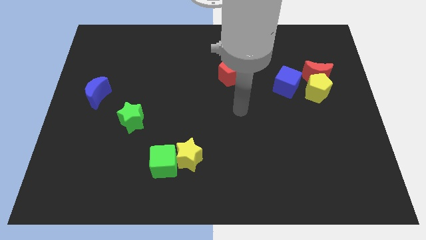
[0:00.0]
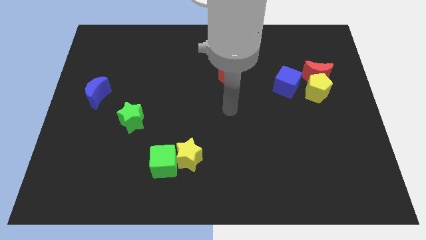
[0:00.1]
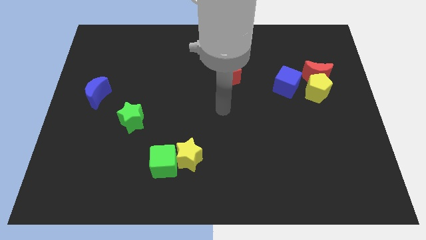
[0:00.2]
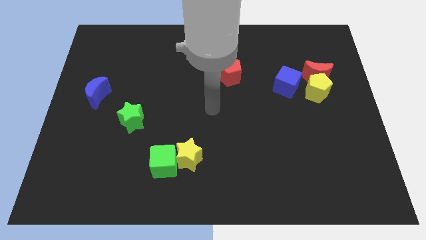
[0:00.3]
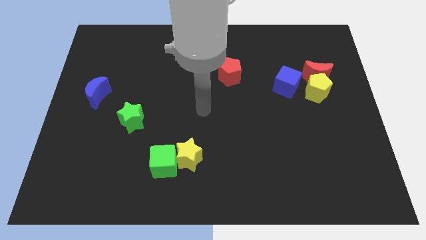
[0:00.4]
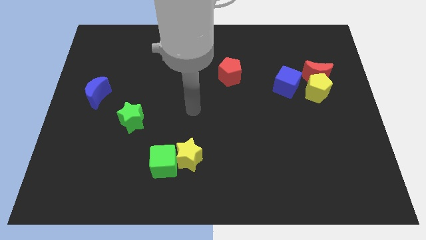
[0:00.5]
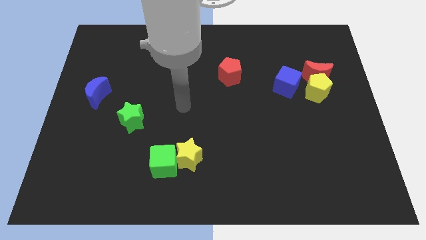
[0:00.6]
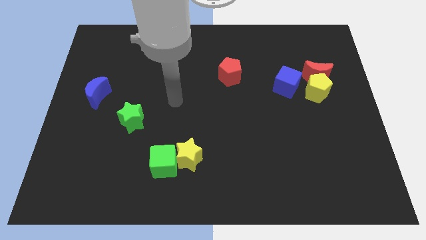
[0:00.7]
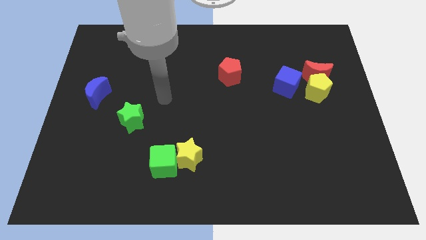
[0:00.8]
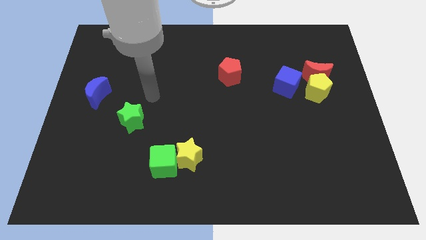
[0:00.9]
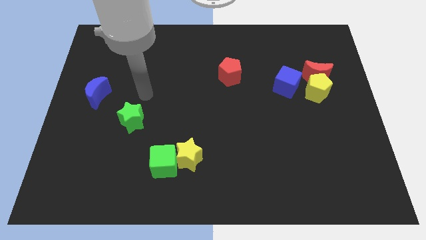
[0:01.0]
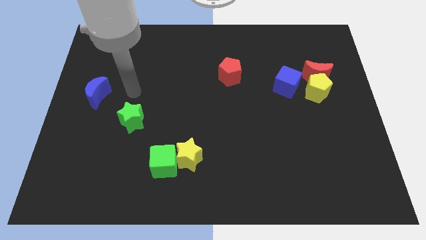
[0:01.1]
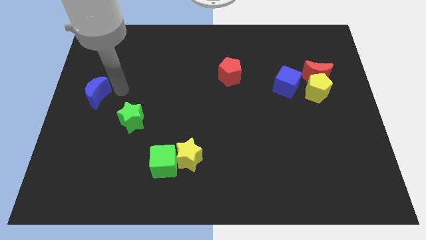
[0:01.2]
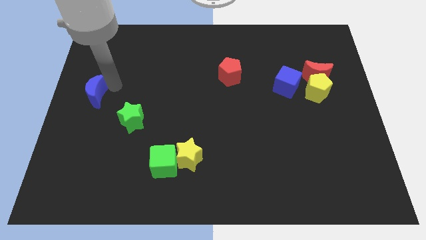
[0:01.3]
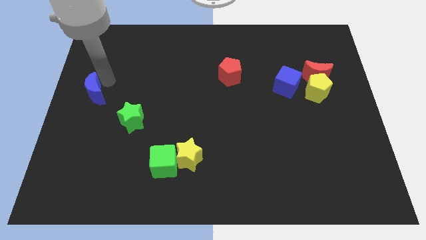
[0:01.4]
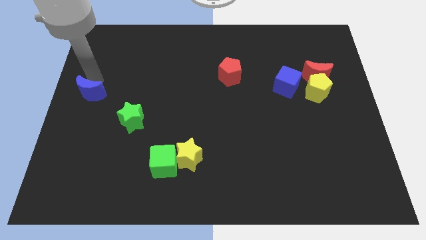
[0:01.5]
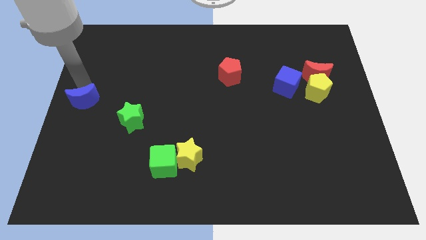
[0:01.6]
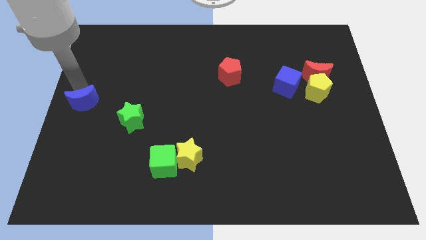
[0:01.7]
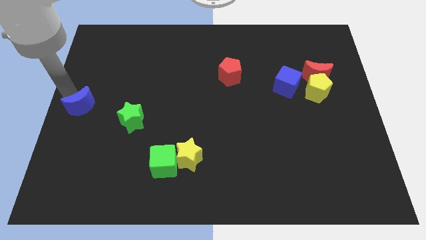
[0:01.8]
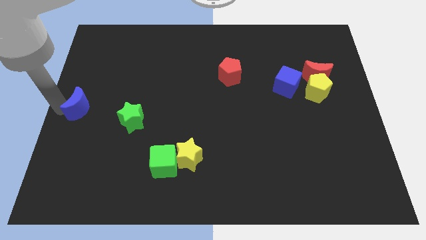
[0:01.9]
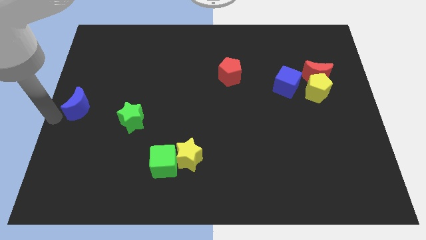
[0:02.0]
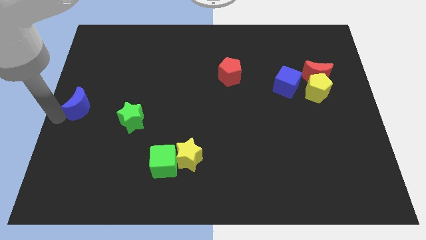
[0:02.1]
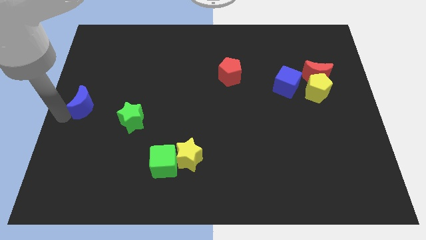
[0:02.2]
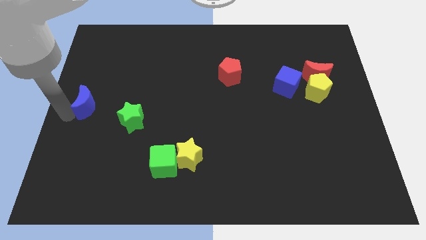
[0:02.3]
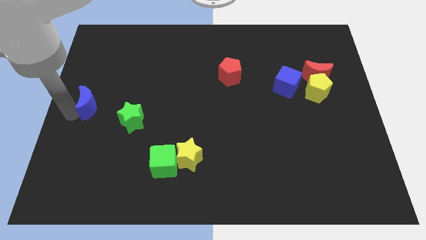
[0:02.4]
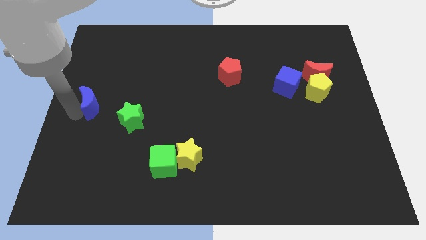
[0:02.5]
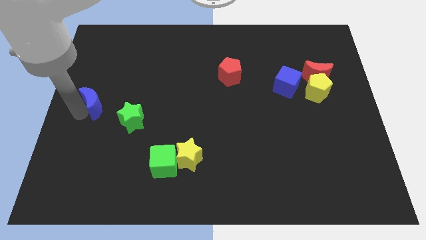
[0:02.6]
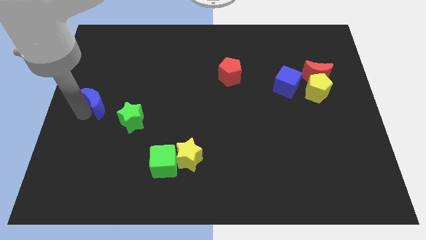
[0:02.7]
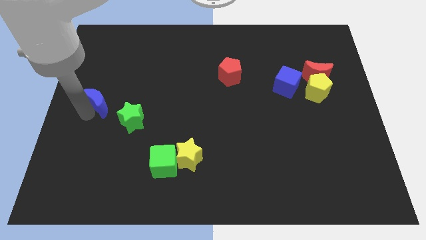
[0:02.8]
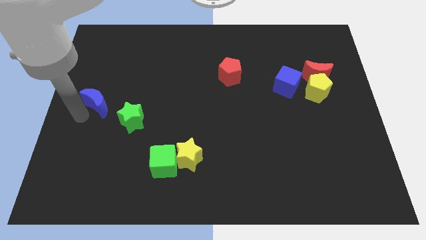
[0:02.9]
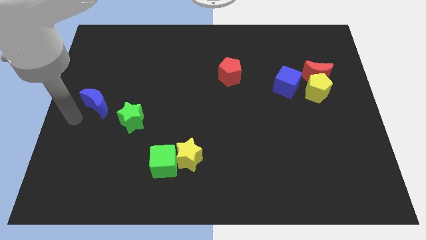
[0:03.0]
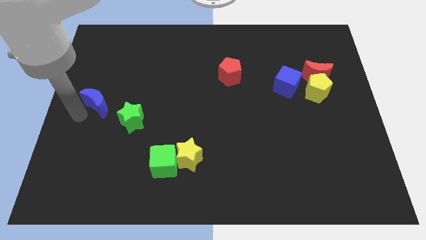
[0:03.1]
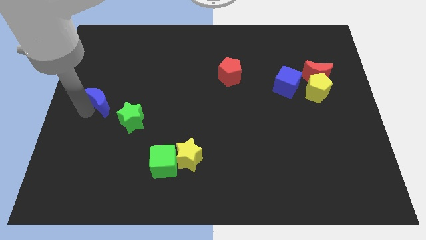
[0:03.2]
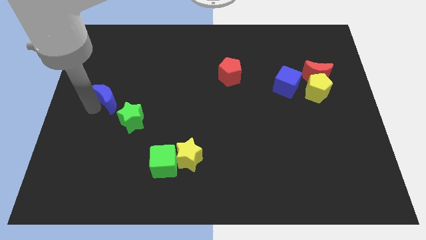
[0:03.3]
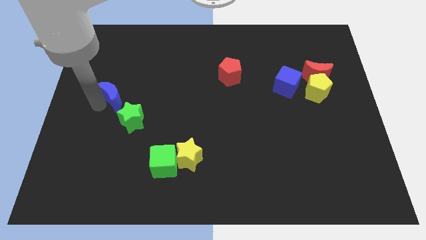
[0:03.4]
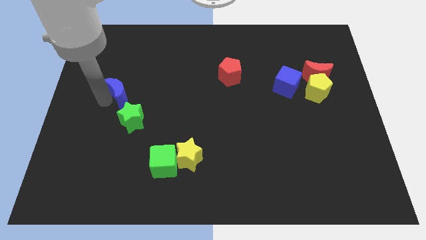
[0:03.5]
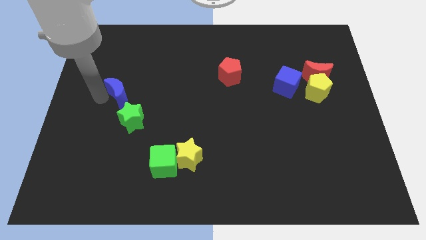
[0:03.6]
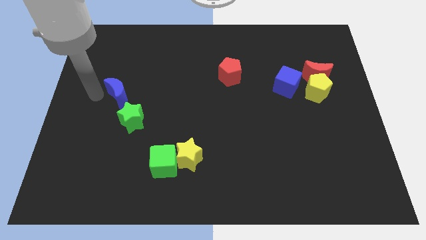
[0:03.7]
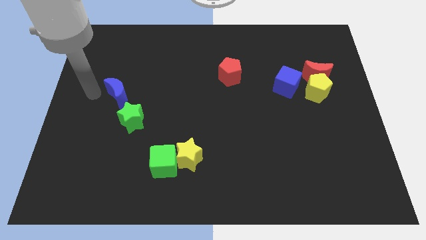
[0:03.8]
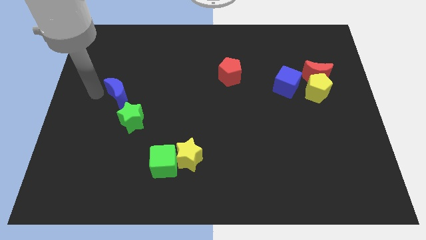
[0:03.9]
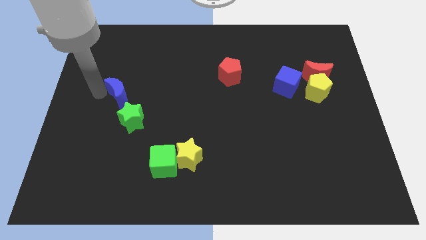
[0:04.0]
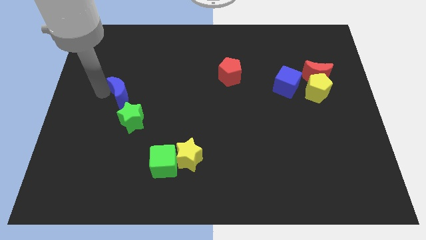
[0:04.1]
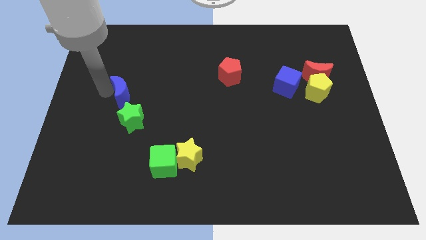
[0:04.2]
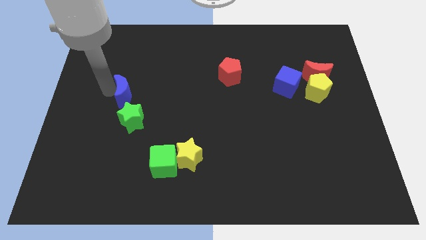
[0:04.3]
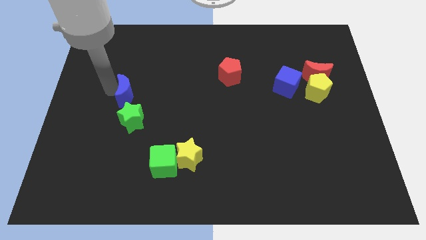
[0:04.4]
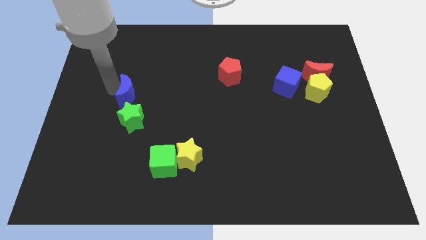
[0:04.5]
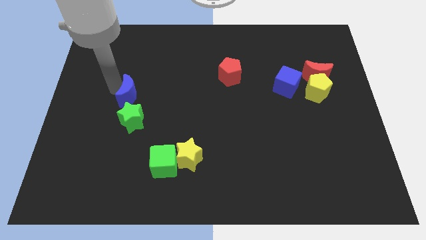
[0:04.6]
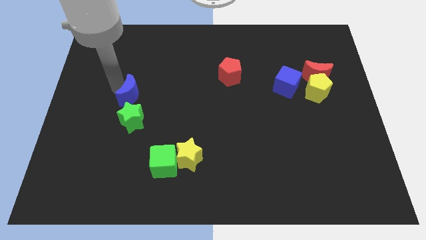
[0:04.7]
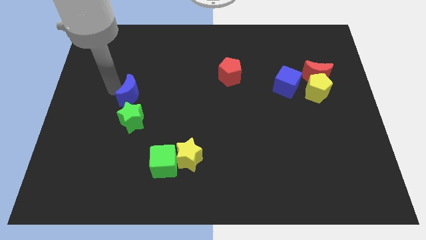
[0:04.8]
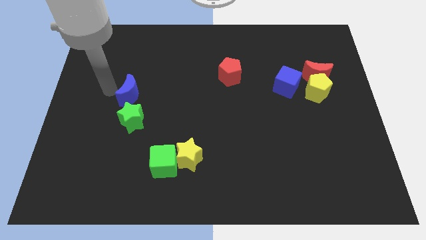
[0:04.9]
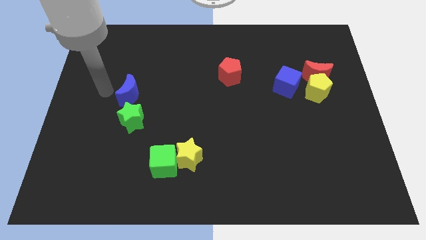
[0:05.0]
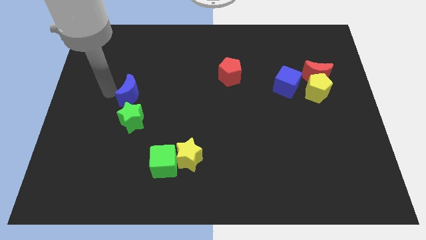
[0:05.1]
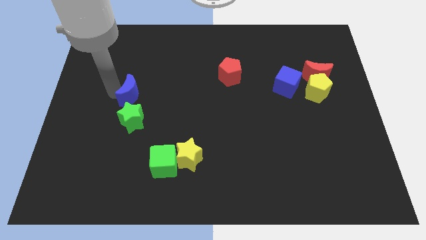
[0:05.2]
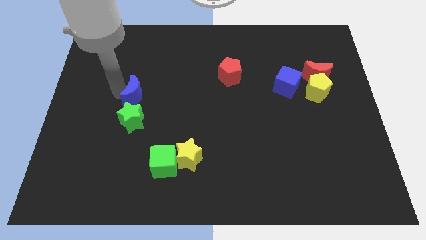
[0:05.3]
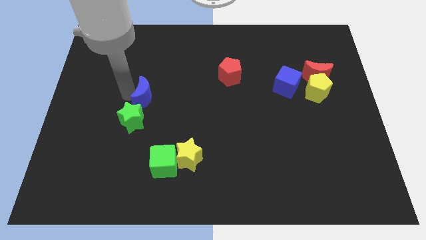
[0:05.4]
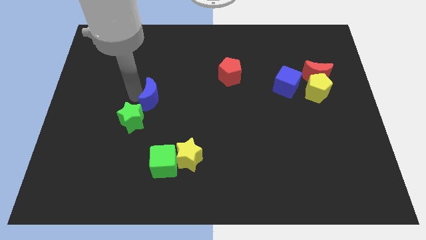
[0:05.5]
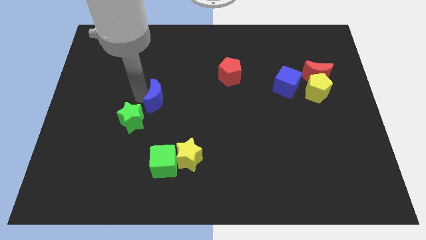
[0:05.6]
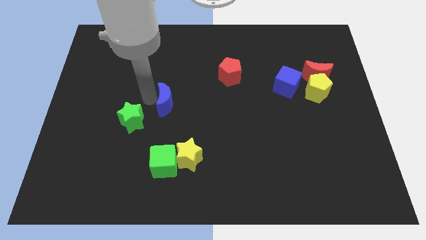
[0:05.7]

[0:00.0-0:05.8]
move the blue moon to the center of the board

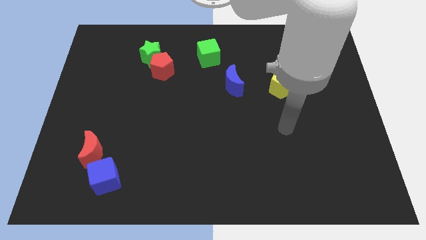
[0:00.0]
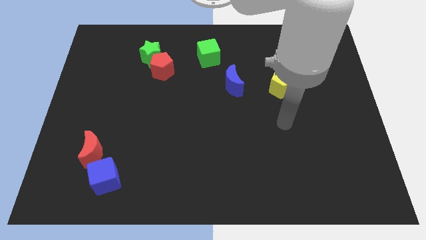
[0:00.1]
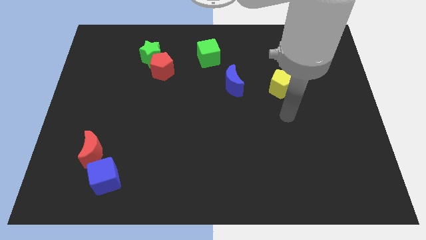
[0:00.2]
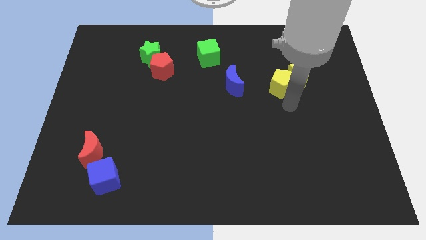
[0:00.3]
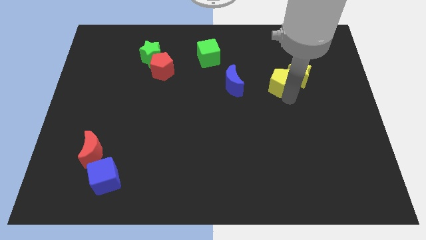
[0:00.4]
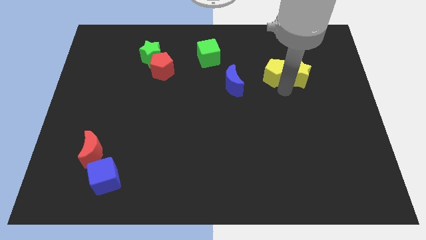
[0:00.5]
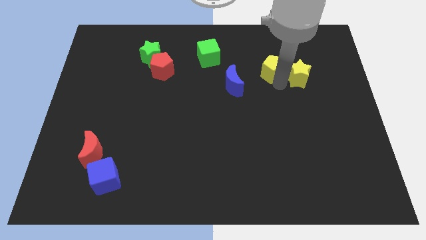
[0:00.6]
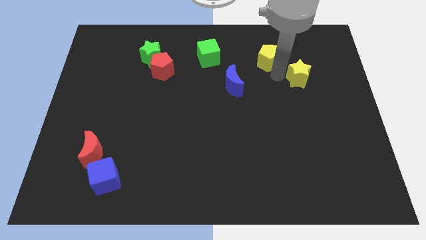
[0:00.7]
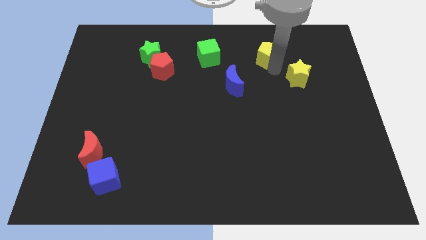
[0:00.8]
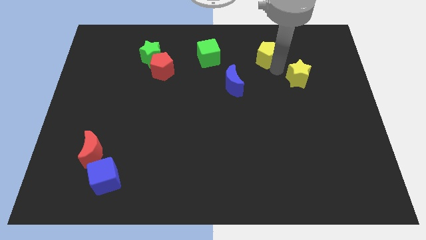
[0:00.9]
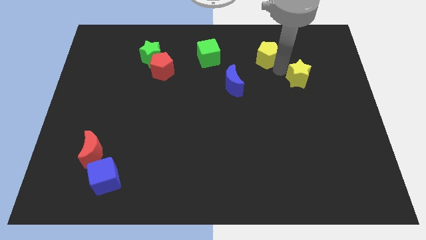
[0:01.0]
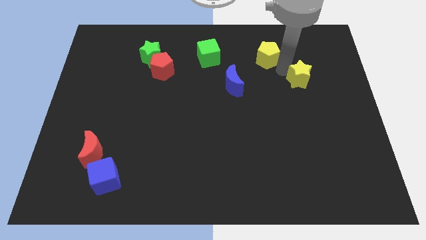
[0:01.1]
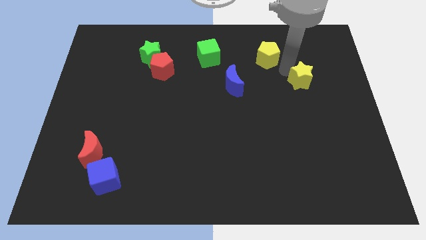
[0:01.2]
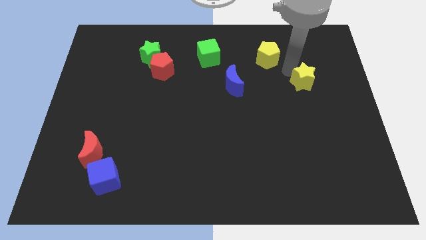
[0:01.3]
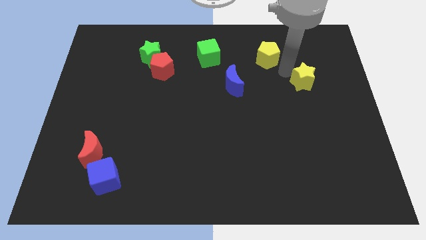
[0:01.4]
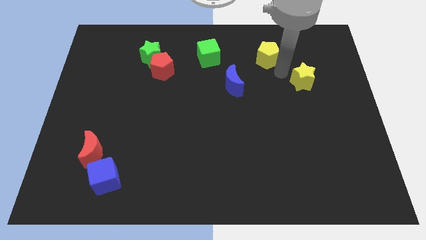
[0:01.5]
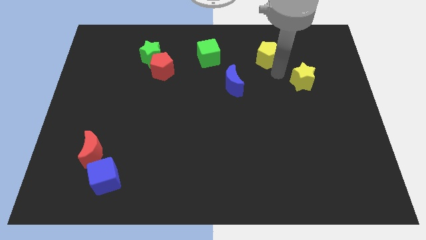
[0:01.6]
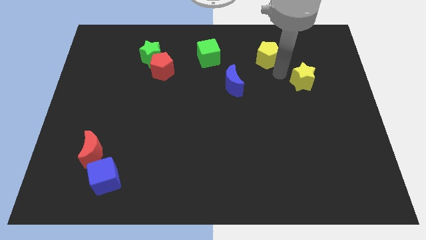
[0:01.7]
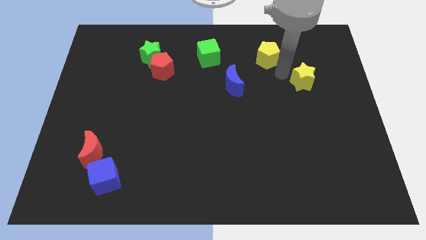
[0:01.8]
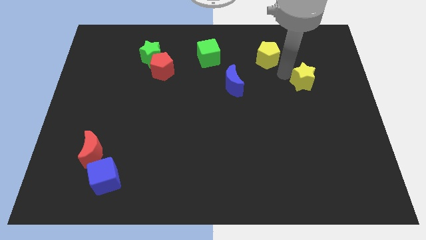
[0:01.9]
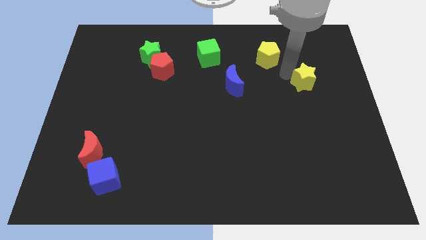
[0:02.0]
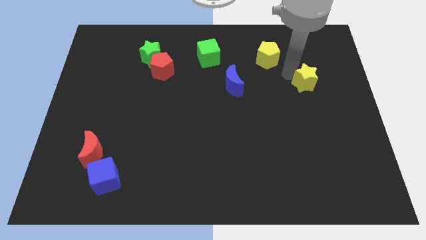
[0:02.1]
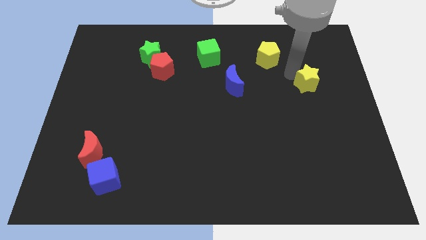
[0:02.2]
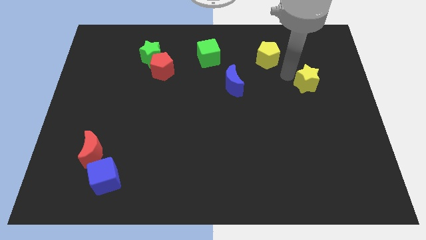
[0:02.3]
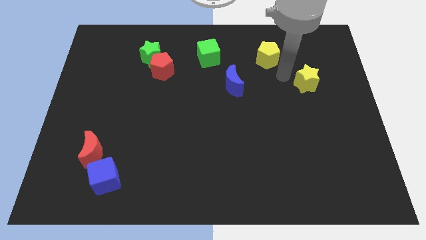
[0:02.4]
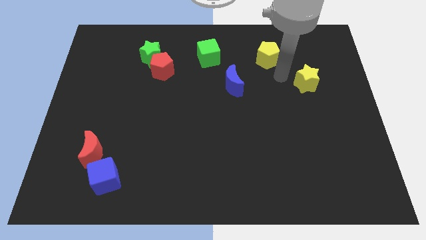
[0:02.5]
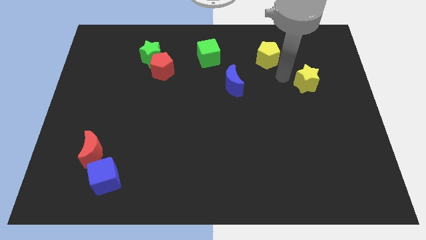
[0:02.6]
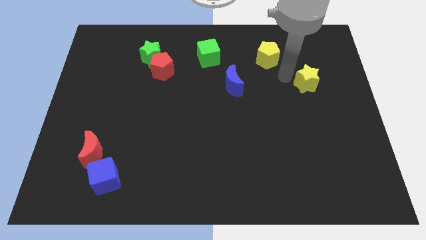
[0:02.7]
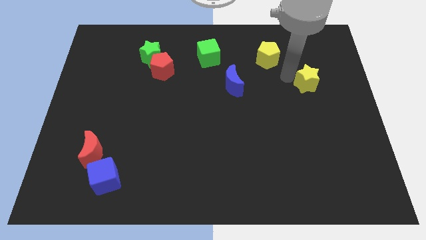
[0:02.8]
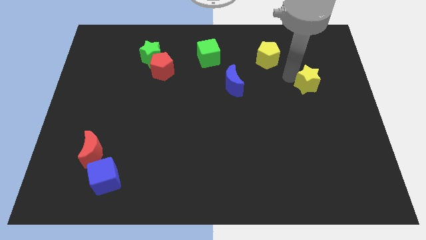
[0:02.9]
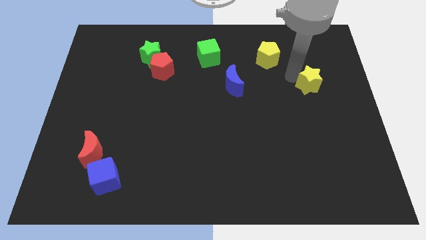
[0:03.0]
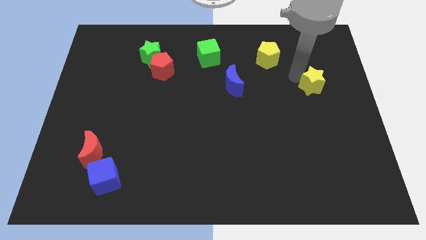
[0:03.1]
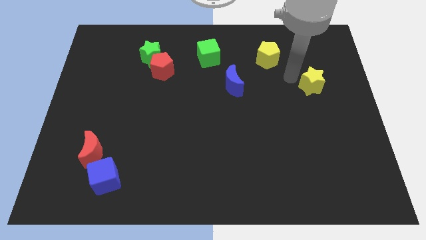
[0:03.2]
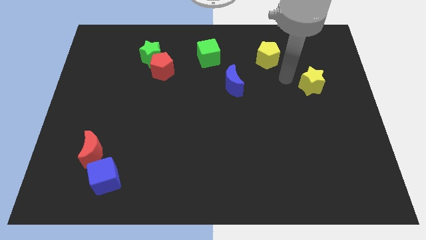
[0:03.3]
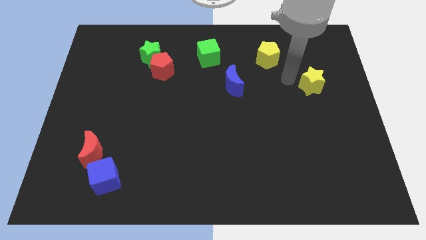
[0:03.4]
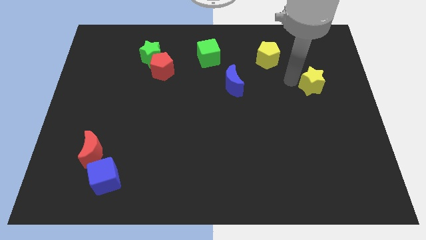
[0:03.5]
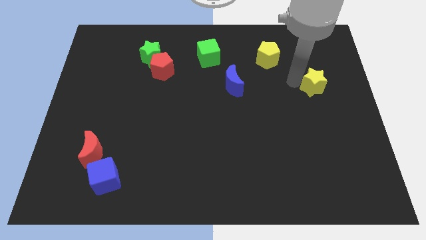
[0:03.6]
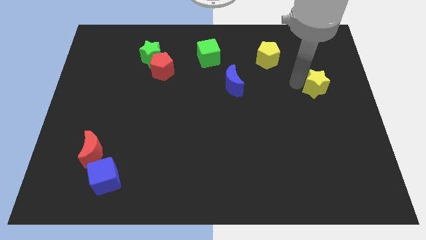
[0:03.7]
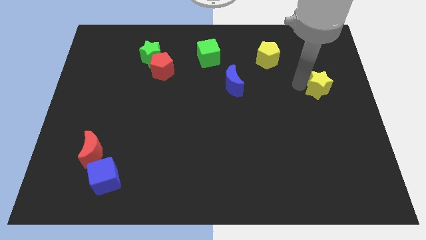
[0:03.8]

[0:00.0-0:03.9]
put the yellow star to the right side of the board
